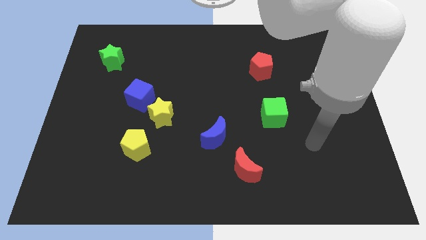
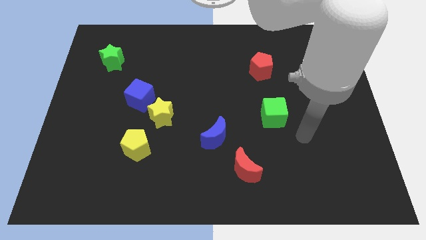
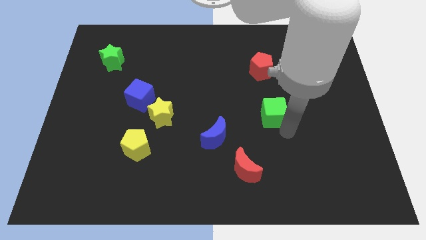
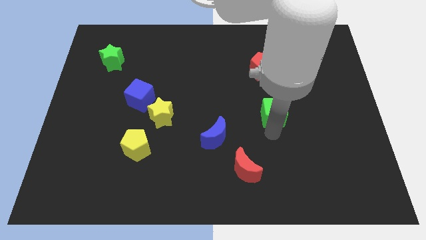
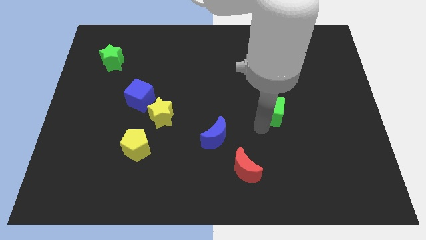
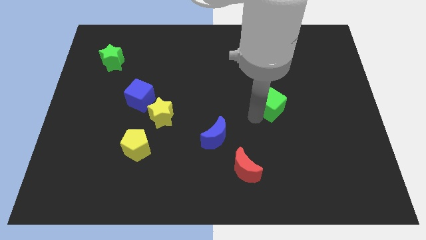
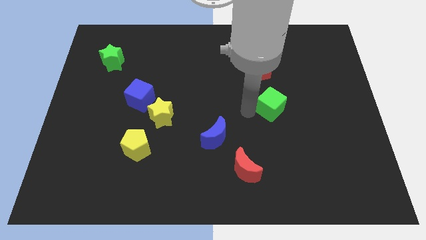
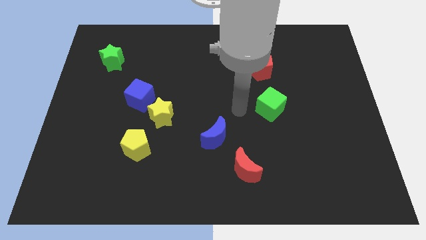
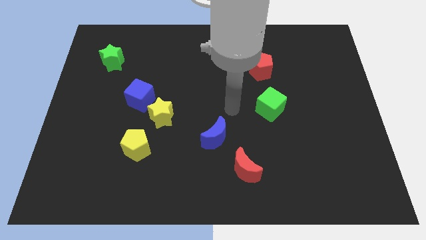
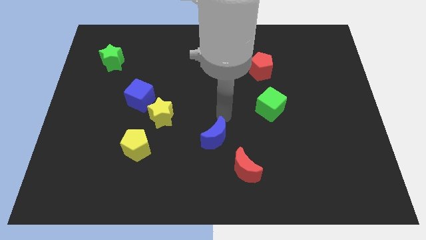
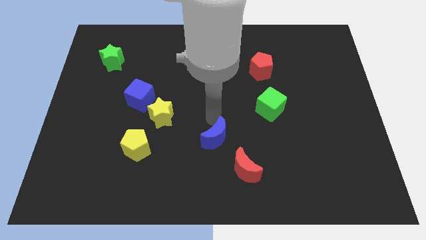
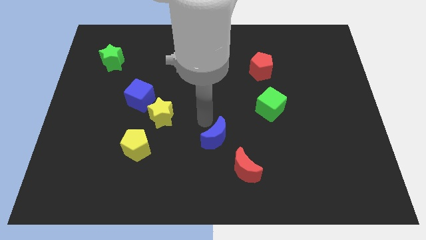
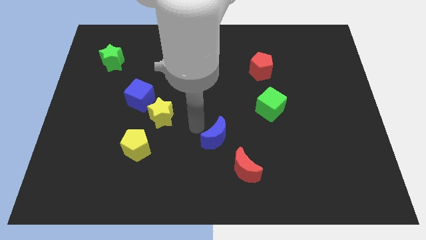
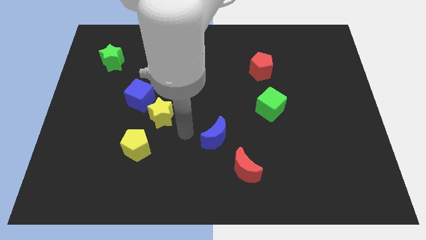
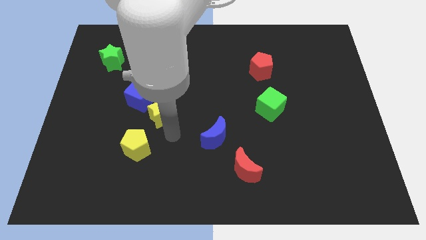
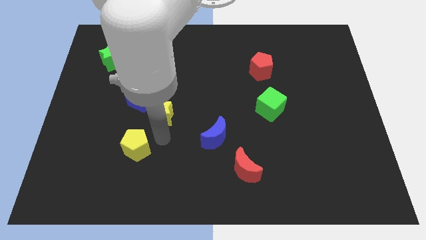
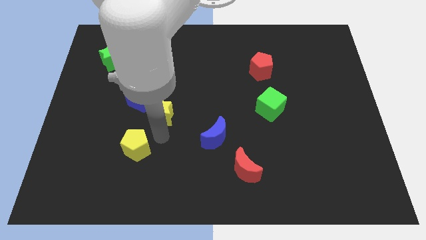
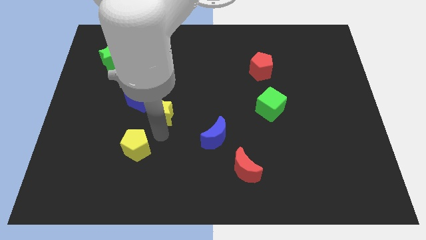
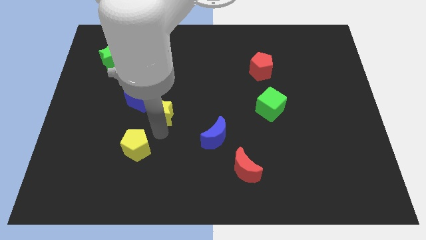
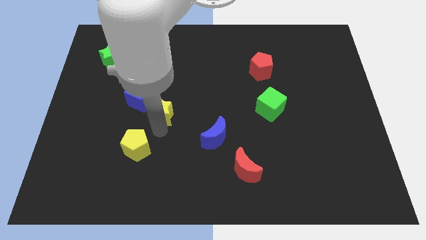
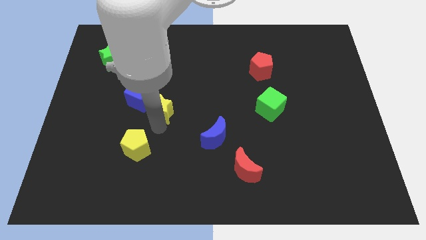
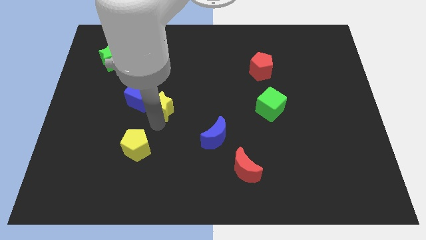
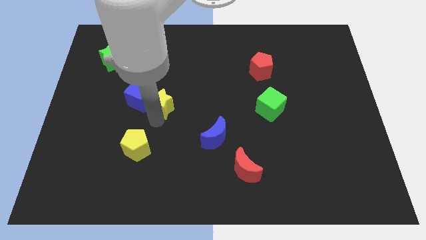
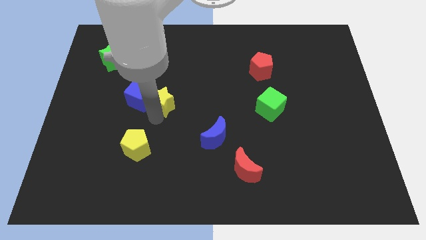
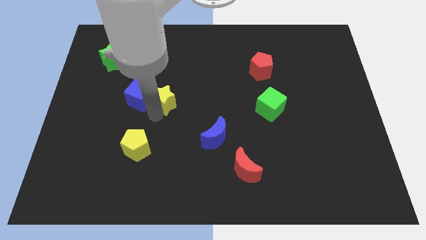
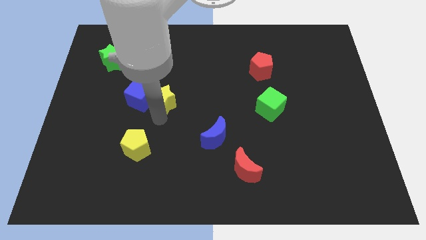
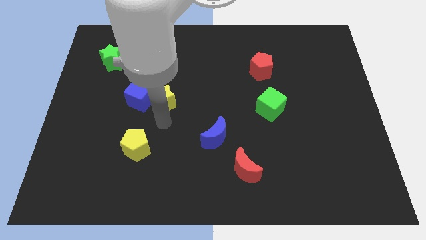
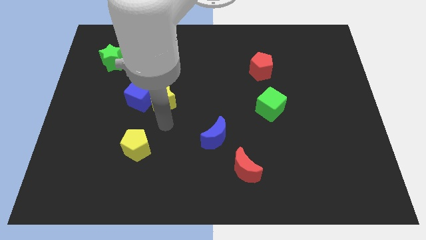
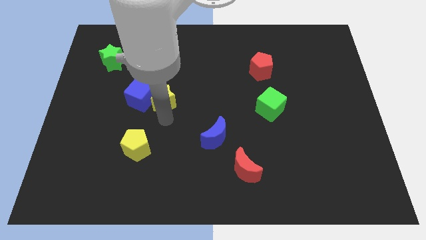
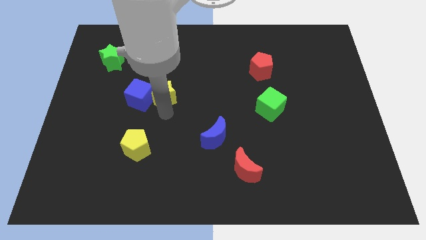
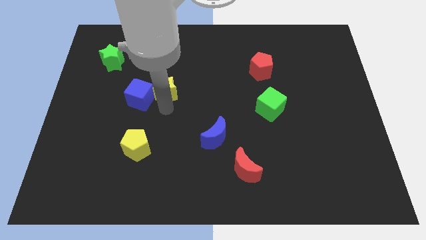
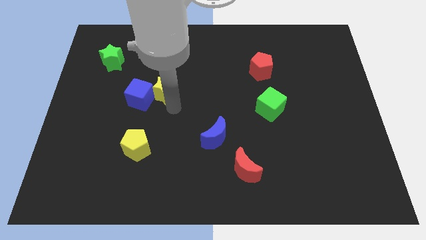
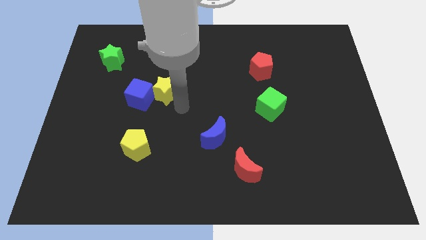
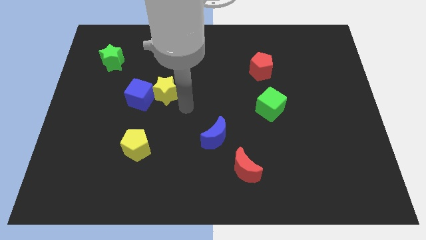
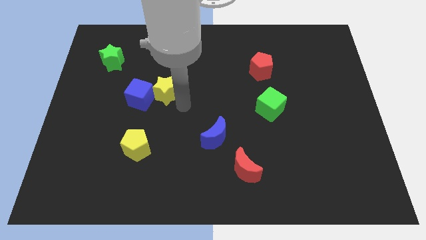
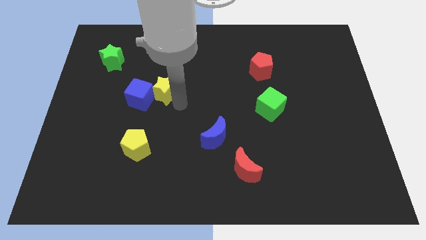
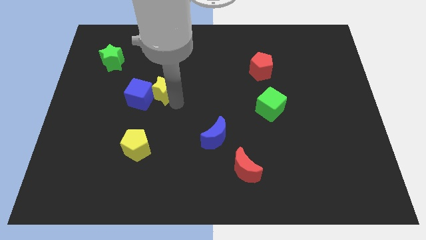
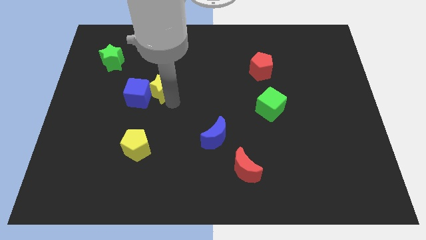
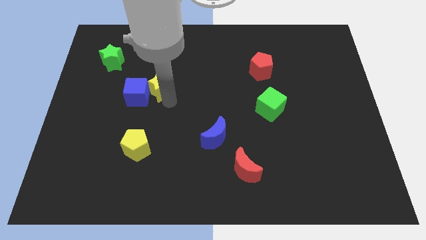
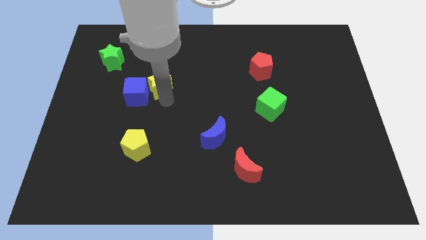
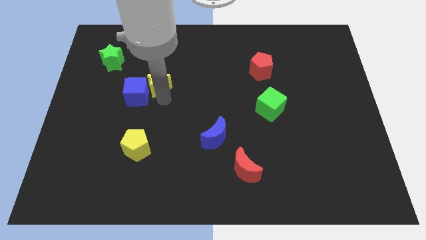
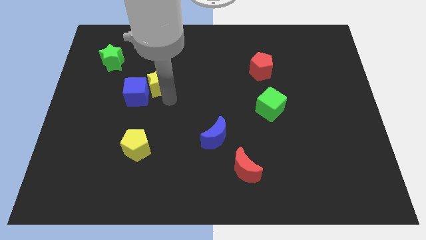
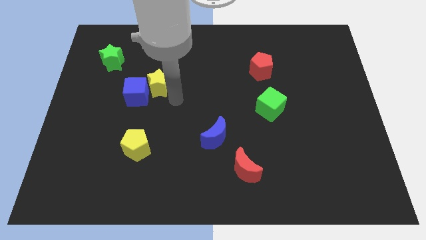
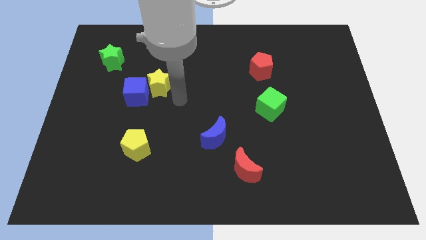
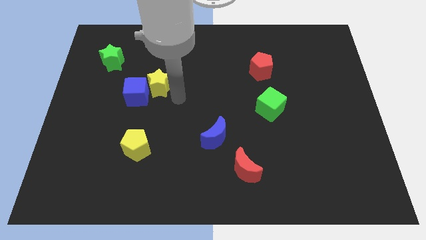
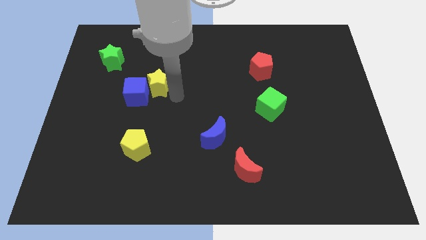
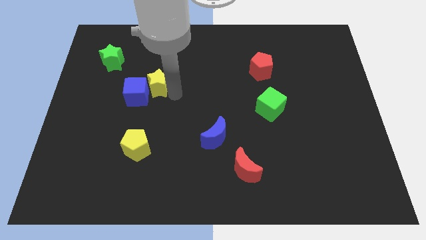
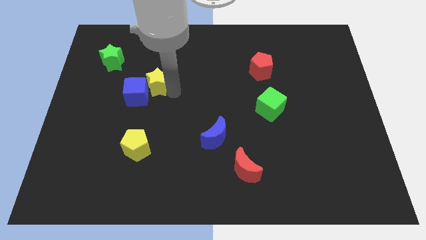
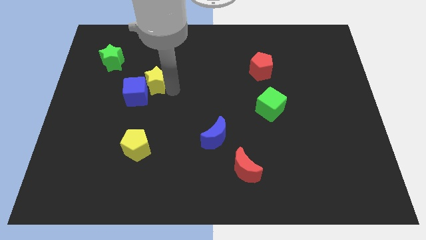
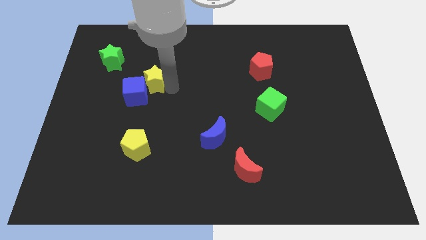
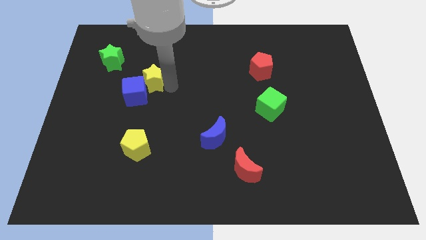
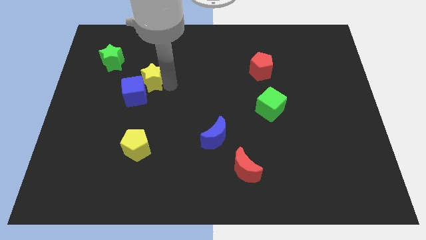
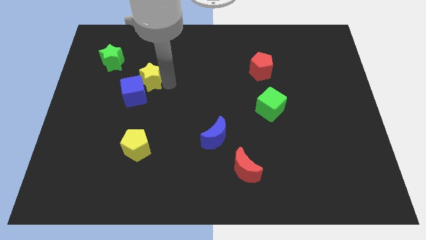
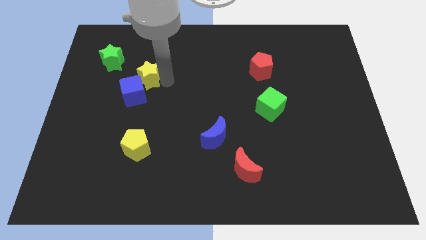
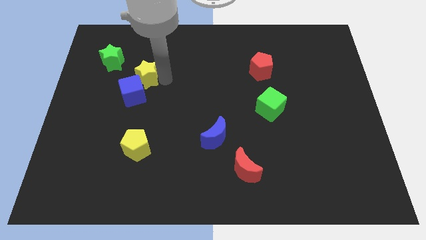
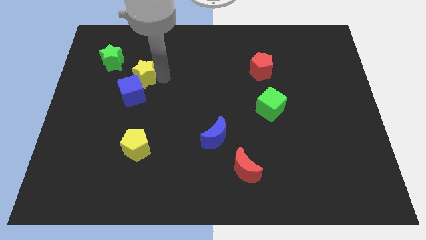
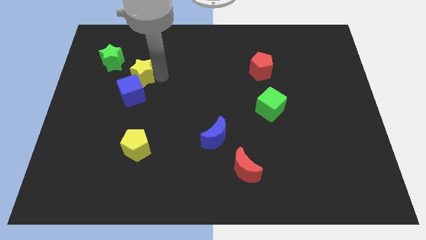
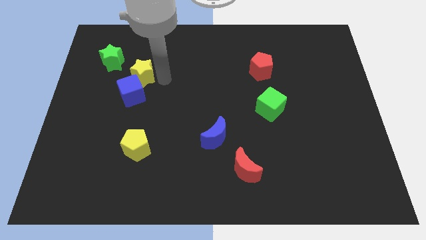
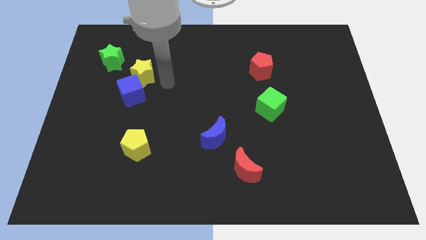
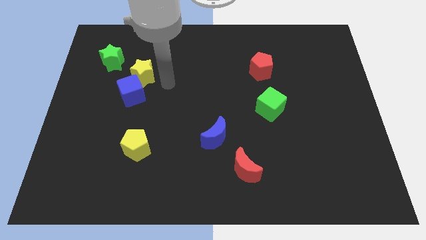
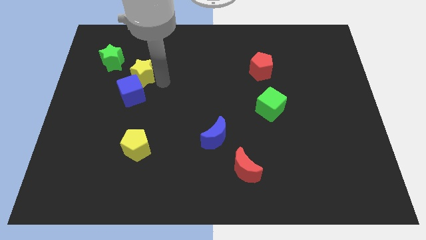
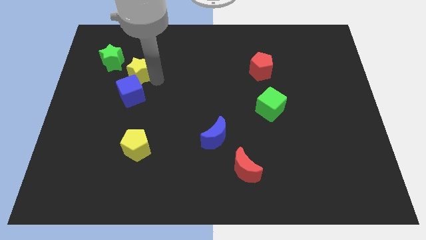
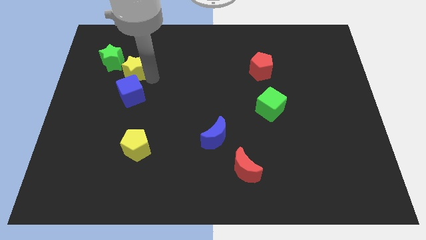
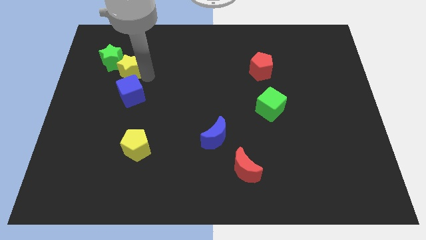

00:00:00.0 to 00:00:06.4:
push the yellow star next to the green star

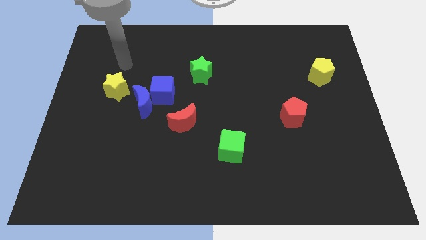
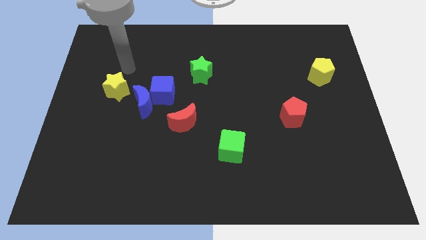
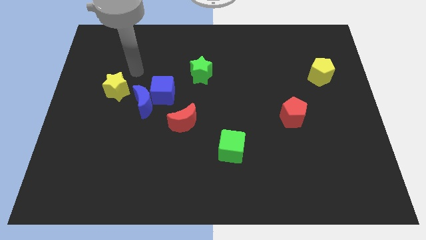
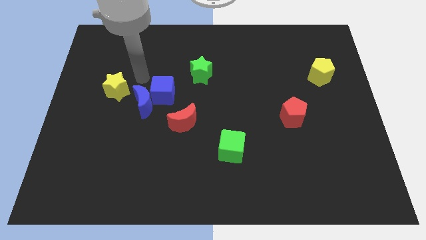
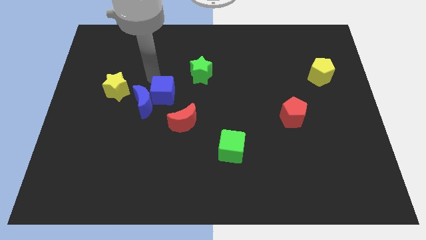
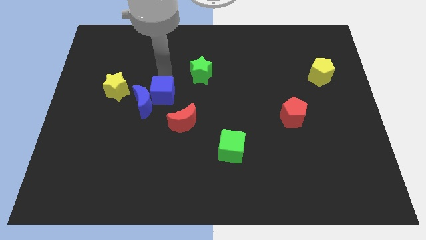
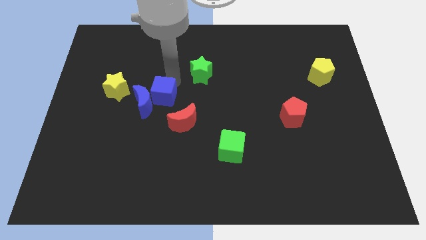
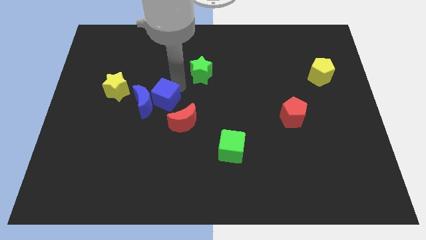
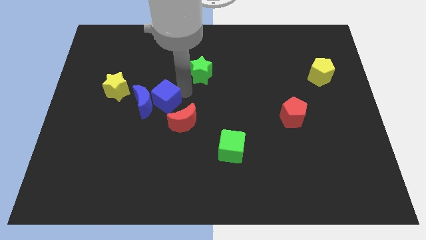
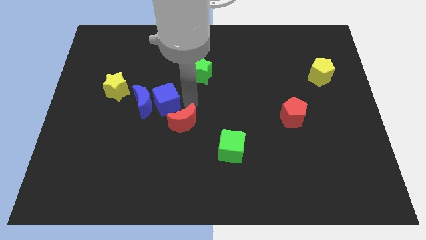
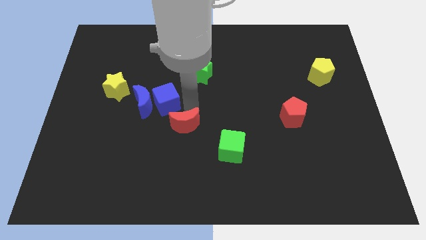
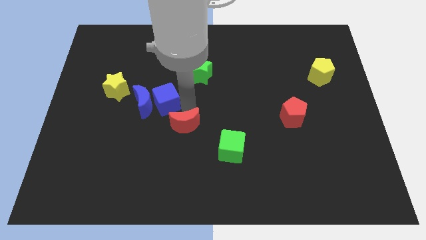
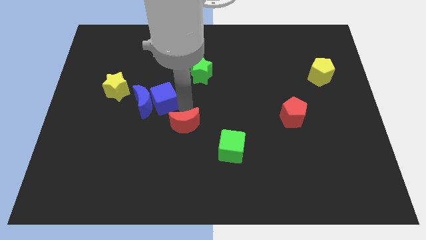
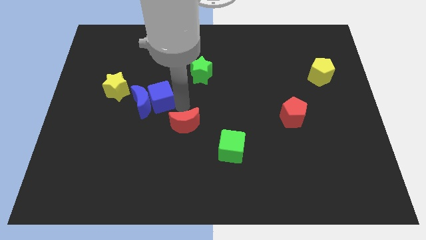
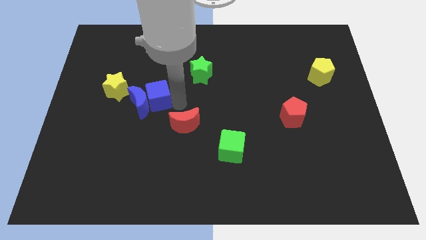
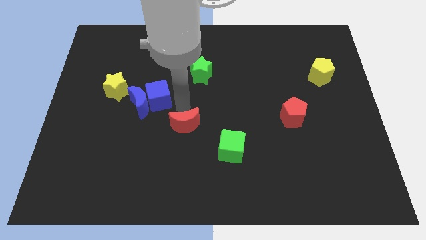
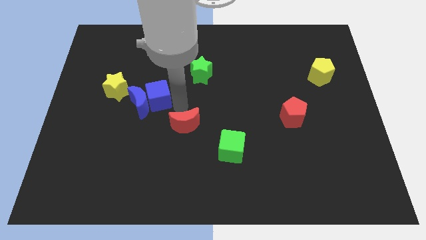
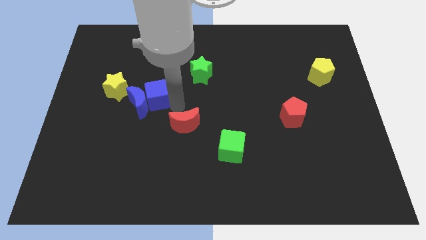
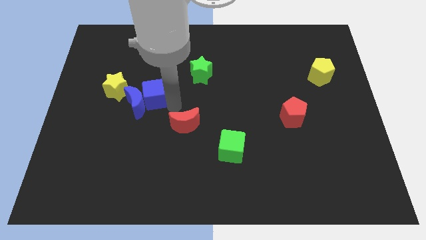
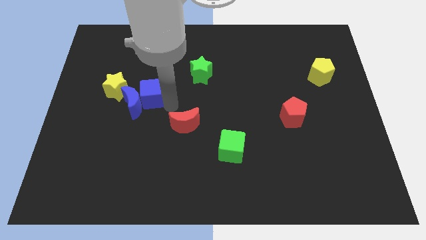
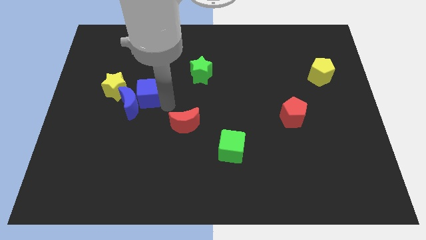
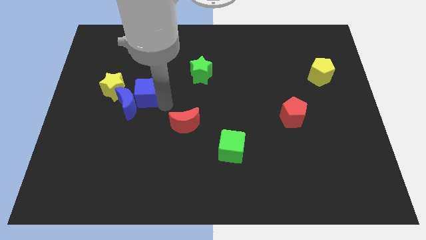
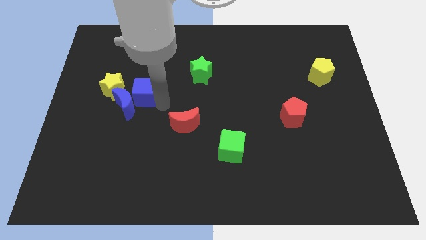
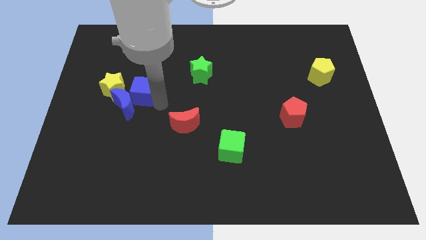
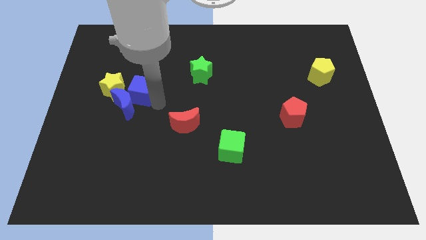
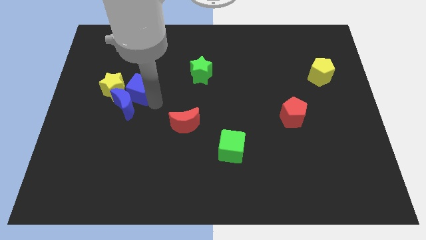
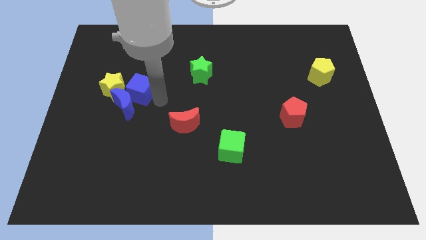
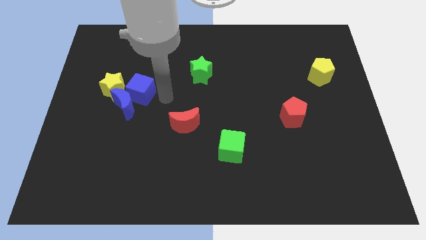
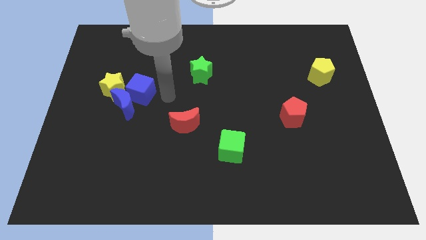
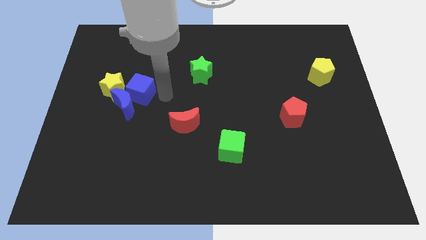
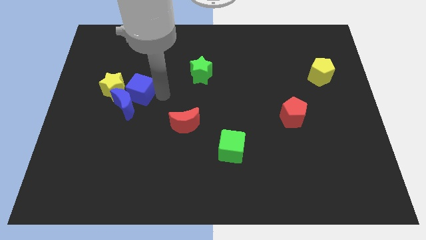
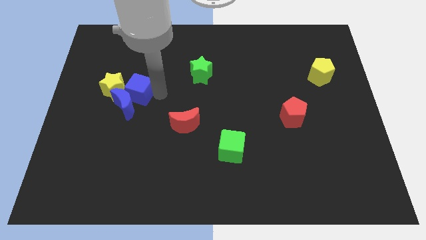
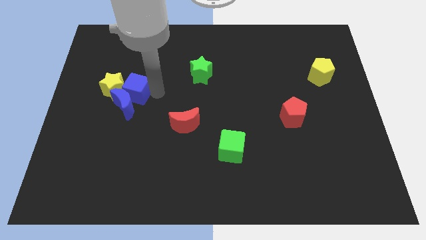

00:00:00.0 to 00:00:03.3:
move the blue cube next to the yellow star
